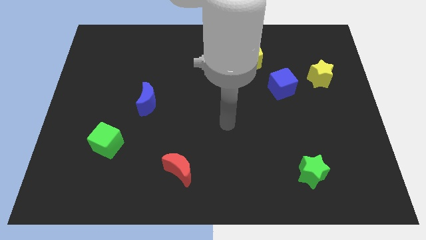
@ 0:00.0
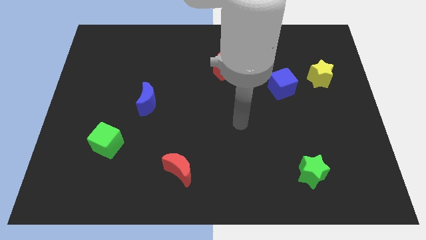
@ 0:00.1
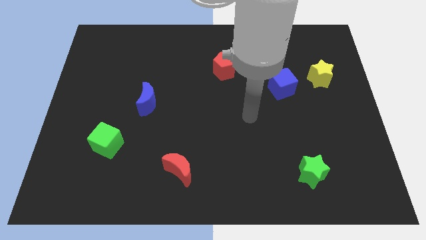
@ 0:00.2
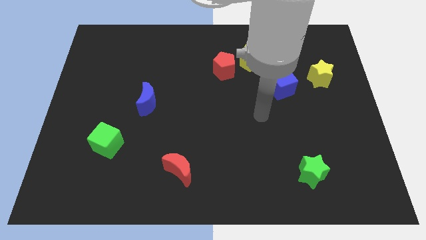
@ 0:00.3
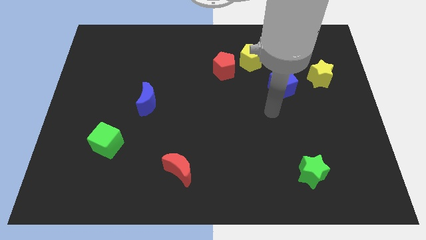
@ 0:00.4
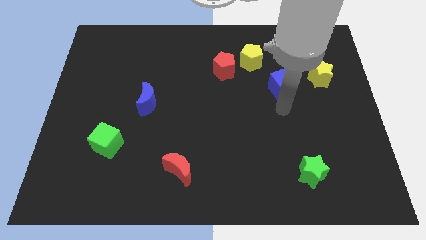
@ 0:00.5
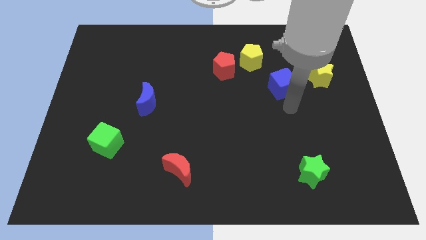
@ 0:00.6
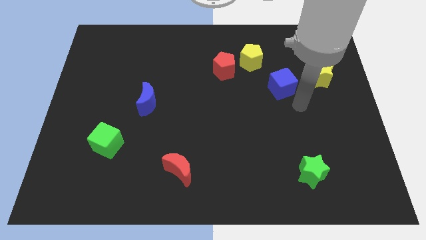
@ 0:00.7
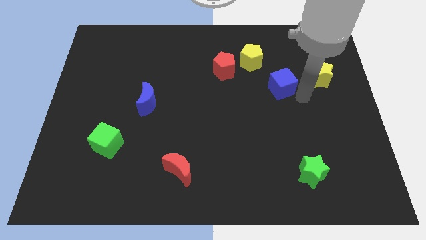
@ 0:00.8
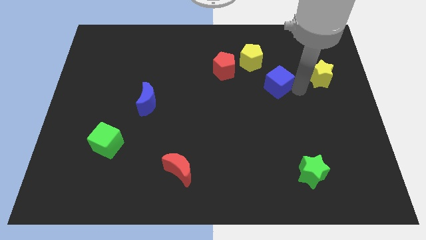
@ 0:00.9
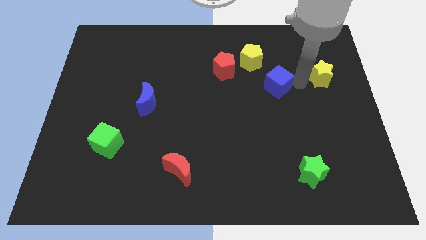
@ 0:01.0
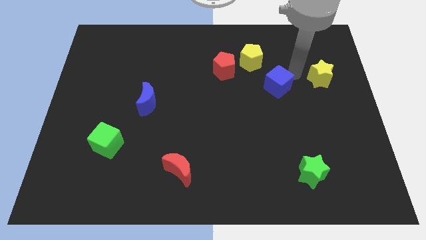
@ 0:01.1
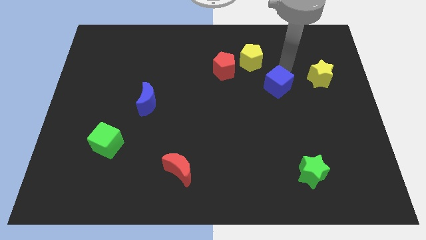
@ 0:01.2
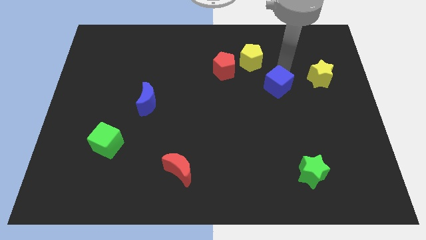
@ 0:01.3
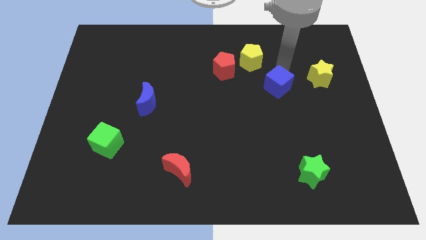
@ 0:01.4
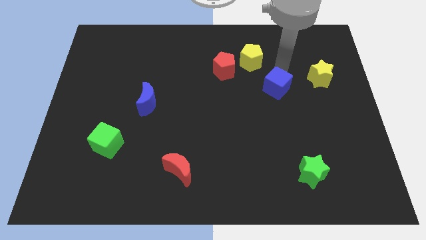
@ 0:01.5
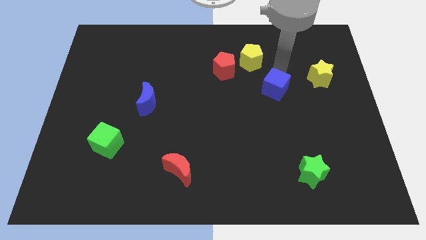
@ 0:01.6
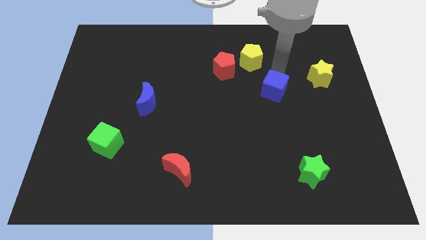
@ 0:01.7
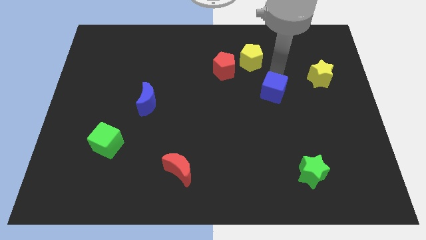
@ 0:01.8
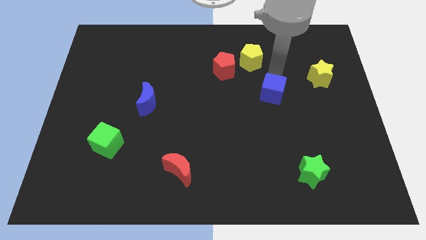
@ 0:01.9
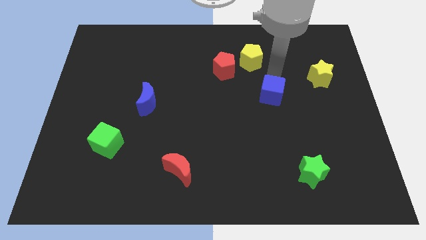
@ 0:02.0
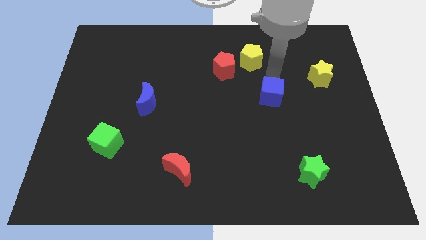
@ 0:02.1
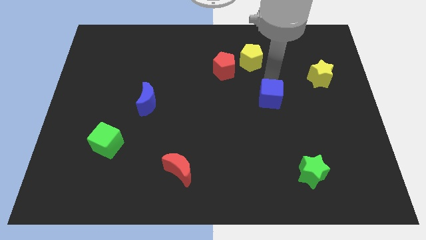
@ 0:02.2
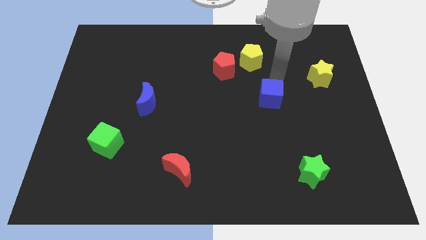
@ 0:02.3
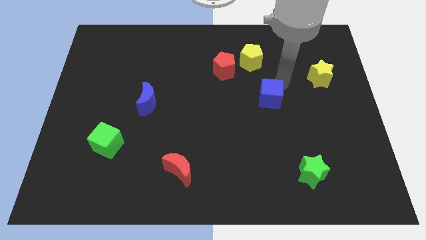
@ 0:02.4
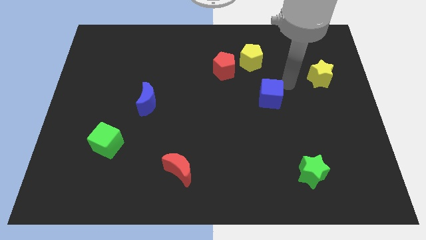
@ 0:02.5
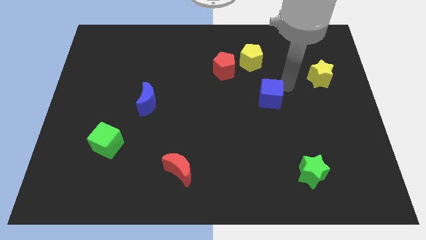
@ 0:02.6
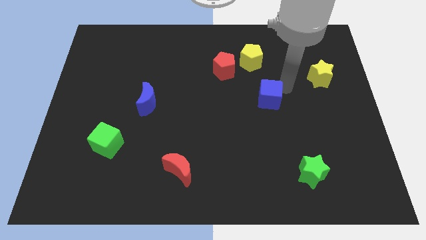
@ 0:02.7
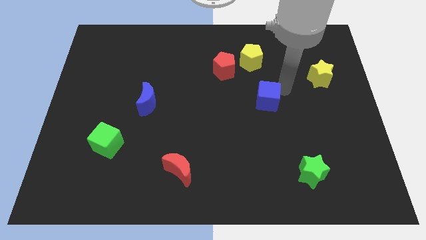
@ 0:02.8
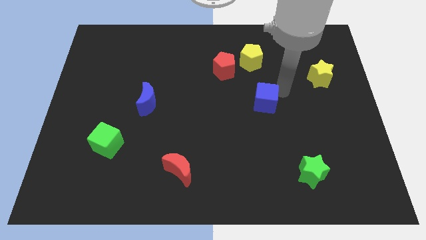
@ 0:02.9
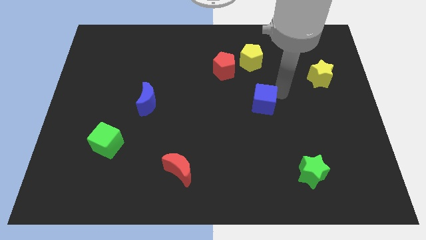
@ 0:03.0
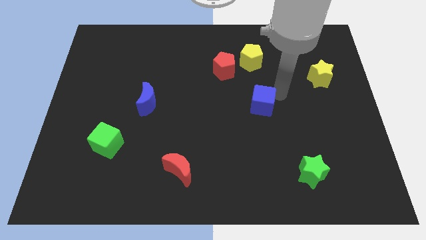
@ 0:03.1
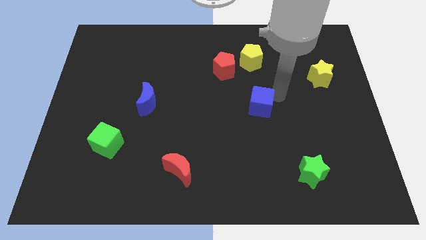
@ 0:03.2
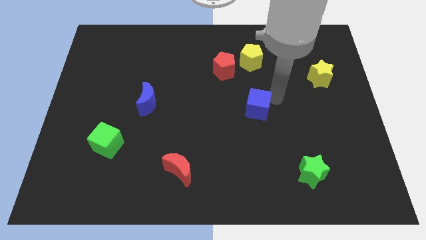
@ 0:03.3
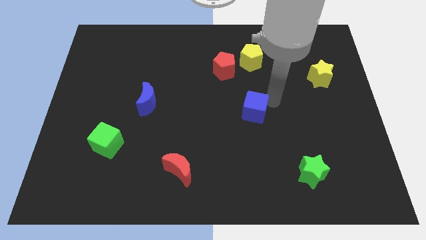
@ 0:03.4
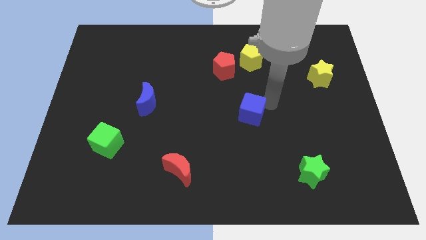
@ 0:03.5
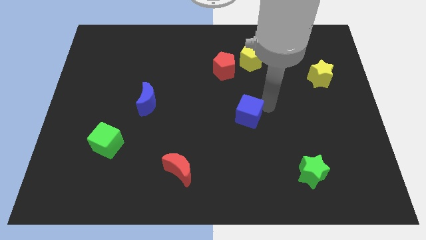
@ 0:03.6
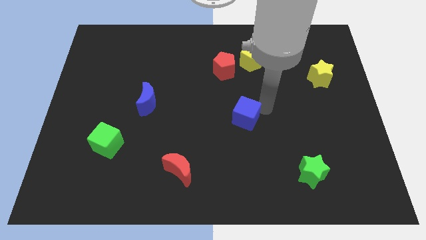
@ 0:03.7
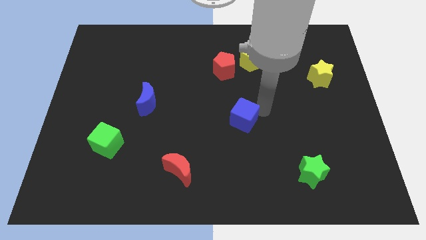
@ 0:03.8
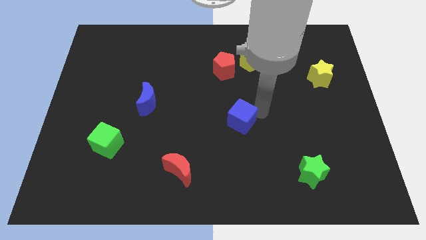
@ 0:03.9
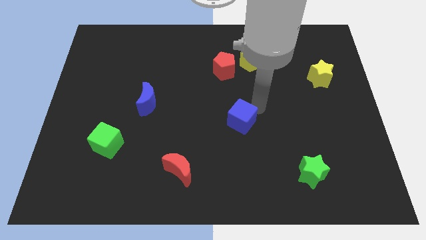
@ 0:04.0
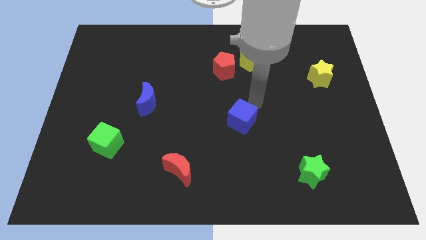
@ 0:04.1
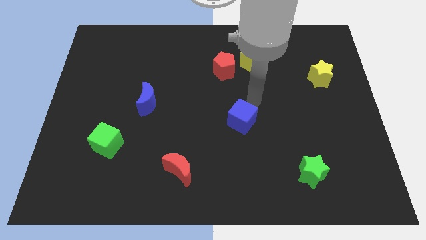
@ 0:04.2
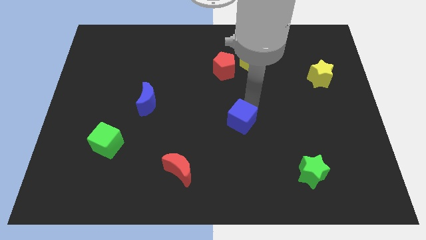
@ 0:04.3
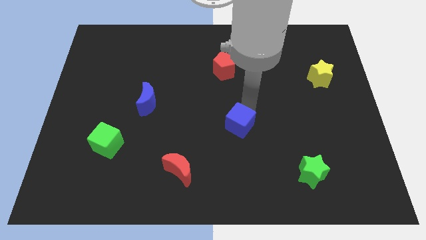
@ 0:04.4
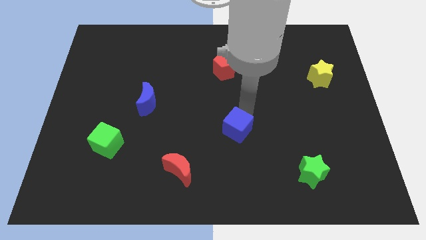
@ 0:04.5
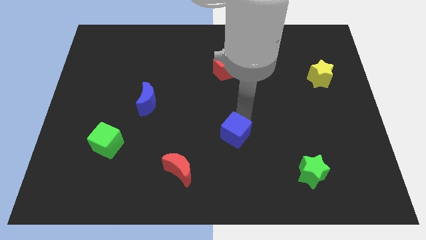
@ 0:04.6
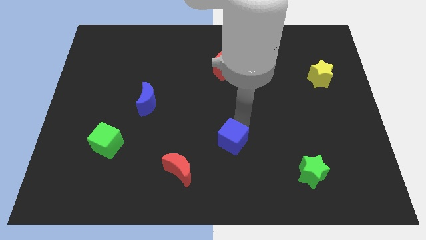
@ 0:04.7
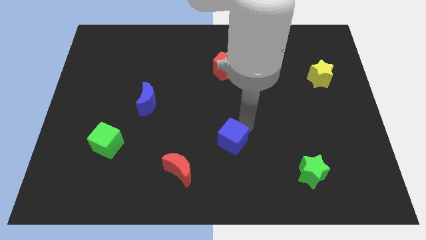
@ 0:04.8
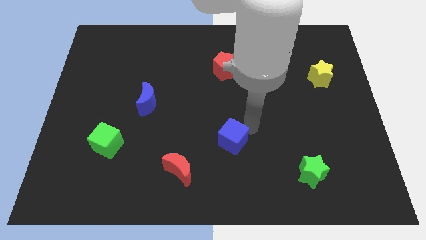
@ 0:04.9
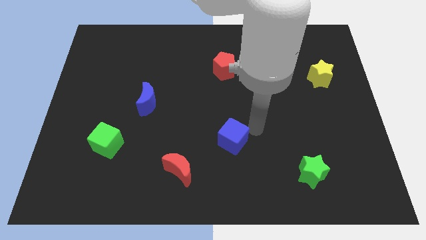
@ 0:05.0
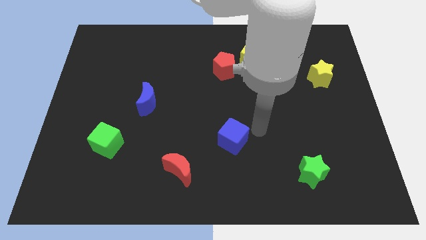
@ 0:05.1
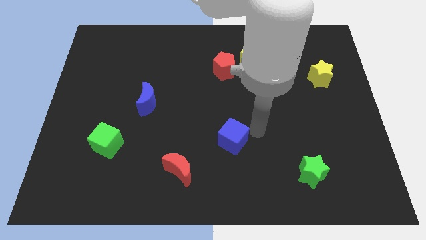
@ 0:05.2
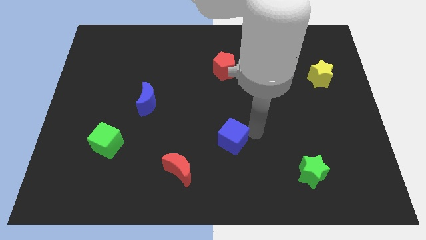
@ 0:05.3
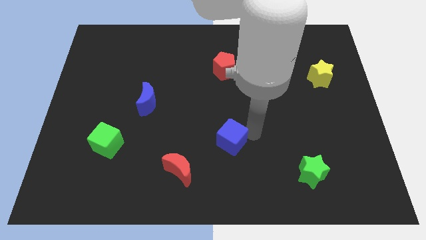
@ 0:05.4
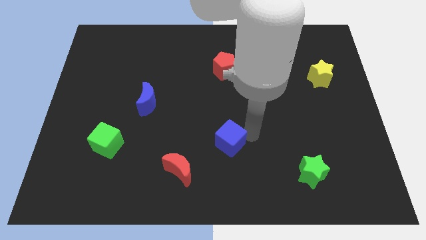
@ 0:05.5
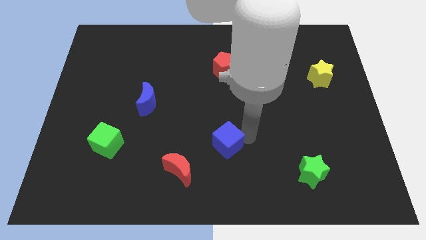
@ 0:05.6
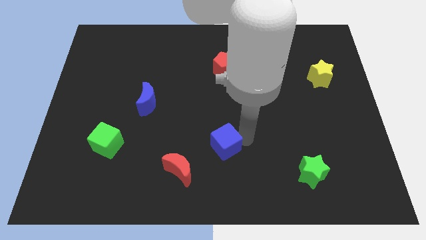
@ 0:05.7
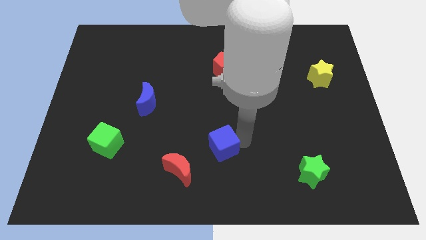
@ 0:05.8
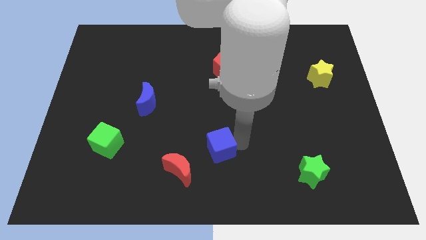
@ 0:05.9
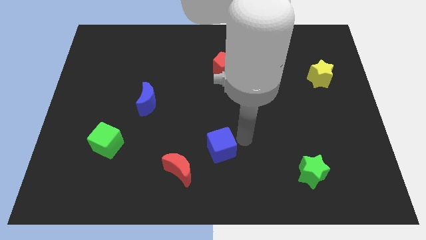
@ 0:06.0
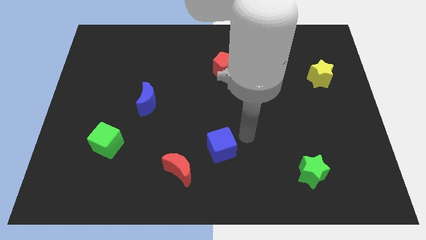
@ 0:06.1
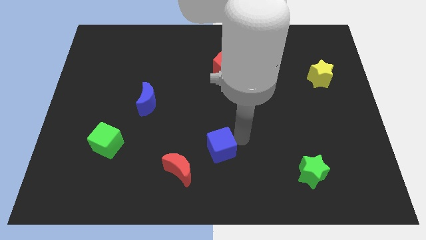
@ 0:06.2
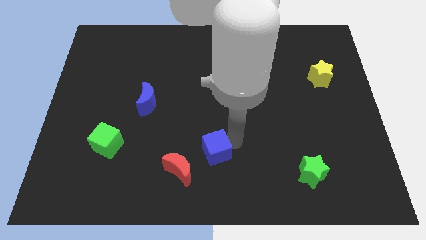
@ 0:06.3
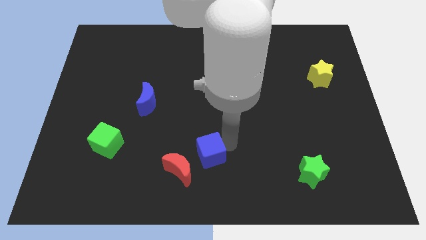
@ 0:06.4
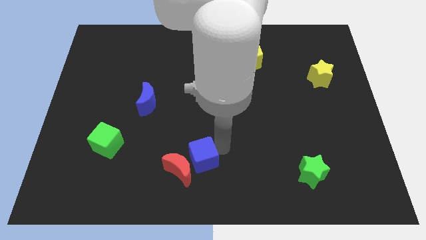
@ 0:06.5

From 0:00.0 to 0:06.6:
move the blue cube towards the red moon

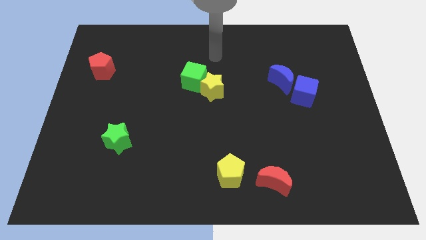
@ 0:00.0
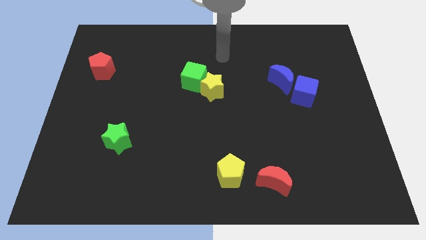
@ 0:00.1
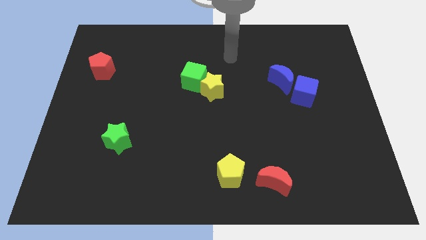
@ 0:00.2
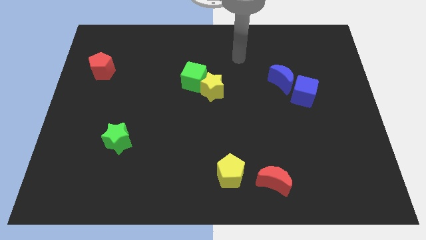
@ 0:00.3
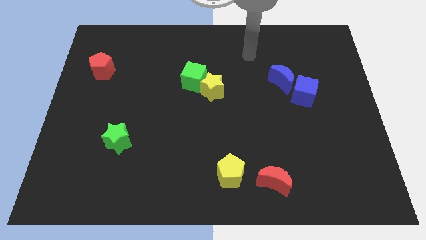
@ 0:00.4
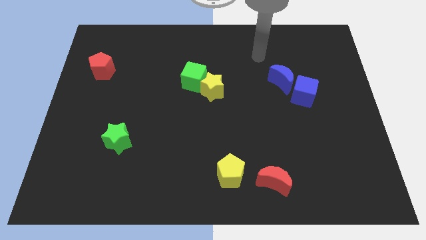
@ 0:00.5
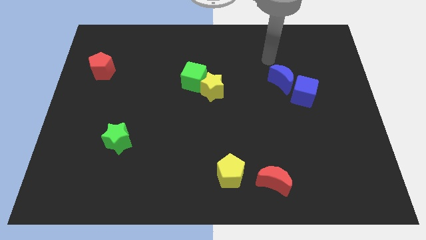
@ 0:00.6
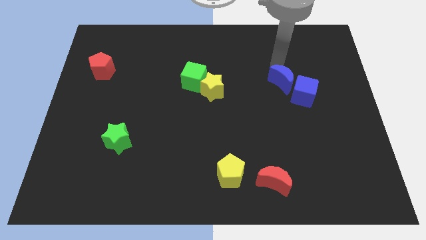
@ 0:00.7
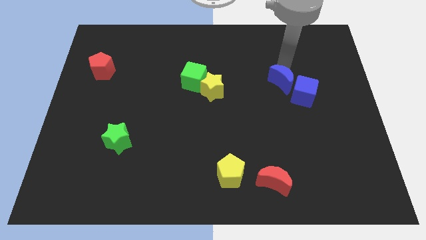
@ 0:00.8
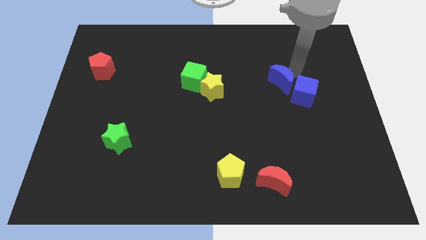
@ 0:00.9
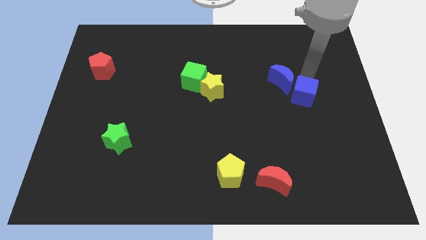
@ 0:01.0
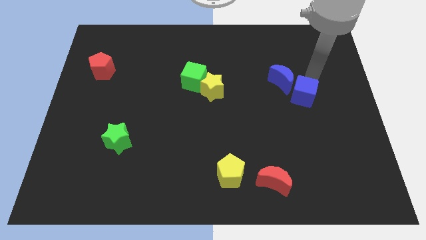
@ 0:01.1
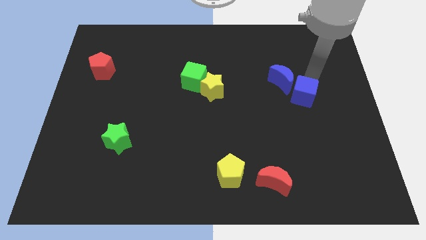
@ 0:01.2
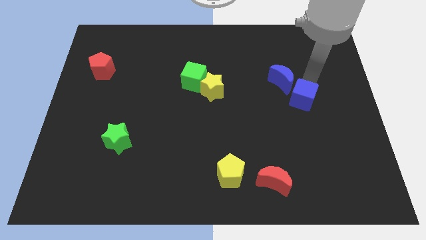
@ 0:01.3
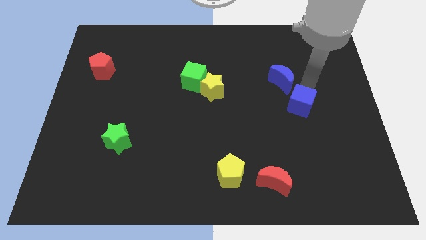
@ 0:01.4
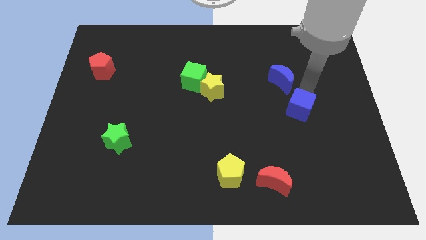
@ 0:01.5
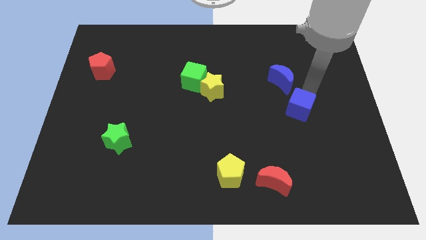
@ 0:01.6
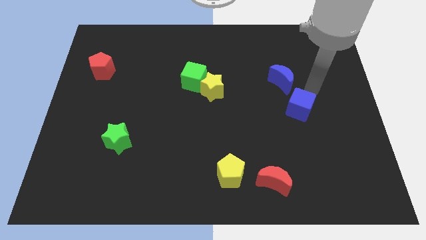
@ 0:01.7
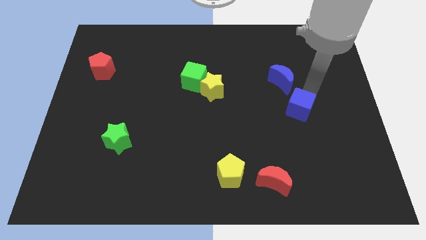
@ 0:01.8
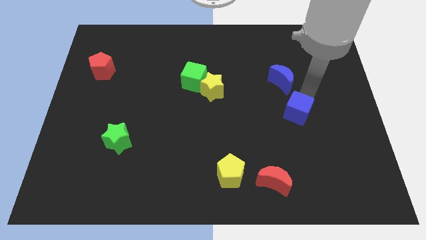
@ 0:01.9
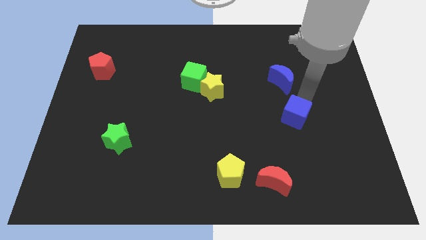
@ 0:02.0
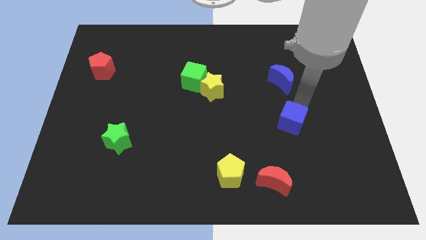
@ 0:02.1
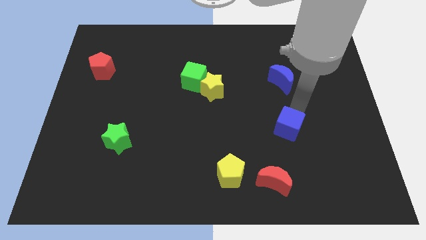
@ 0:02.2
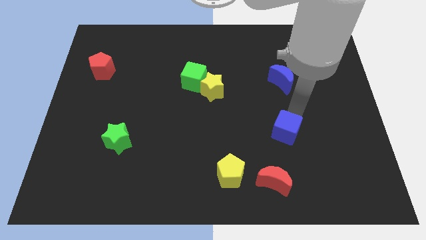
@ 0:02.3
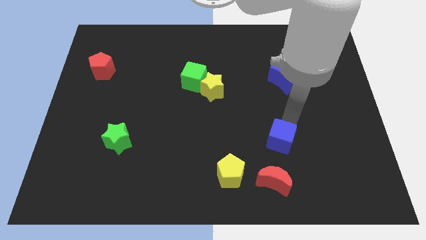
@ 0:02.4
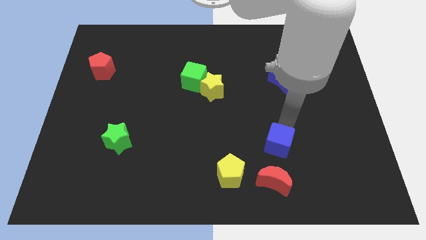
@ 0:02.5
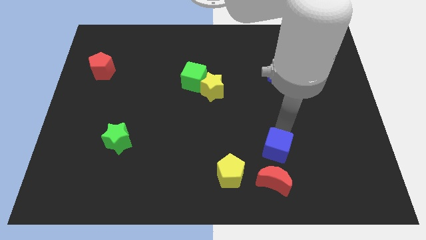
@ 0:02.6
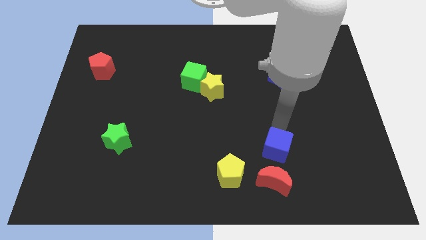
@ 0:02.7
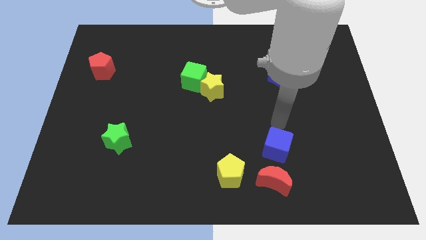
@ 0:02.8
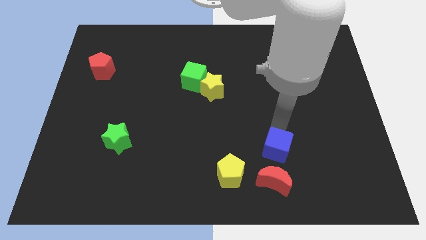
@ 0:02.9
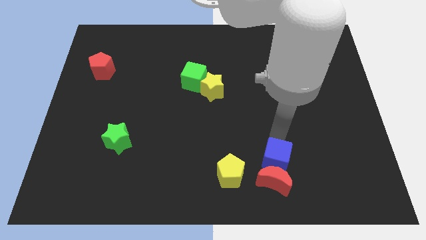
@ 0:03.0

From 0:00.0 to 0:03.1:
move the blue cube to the red moon
